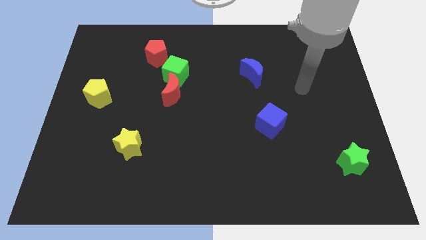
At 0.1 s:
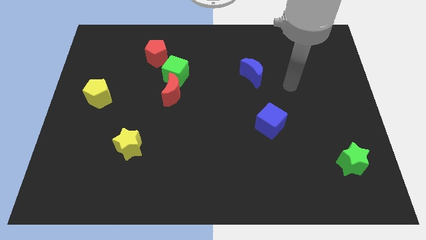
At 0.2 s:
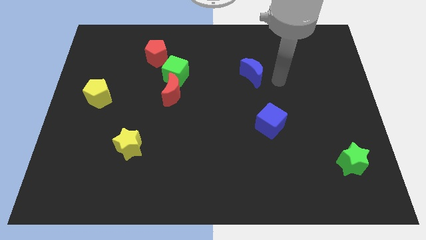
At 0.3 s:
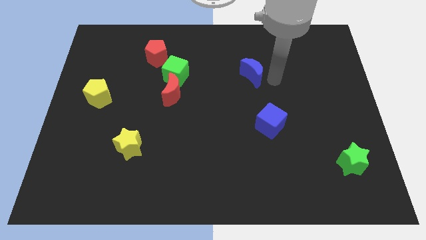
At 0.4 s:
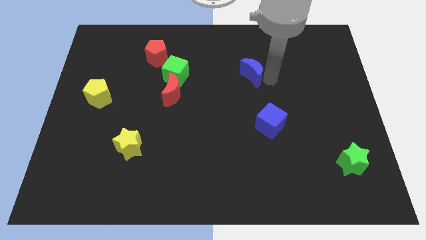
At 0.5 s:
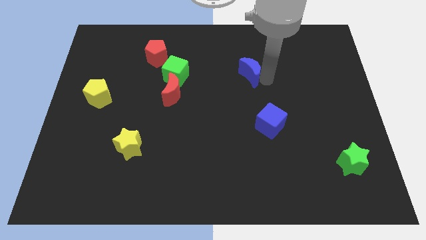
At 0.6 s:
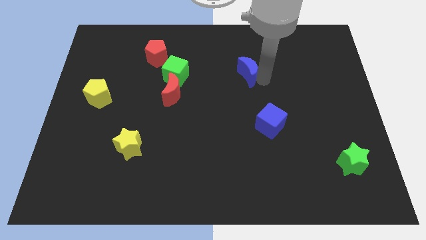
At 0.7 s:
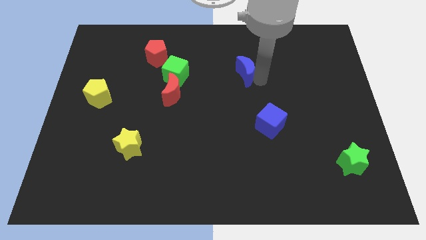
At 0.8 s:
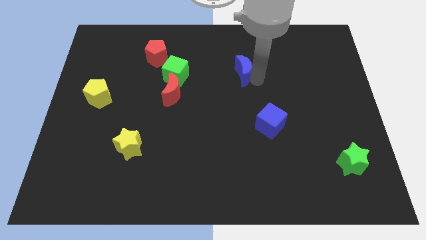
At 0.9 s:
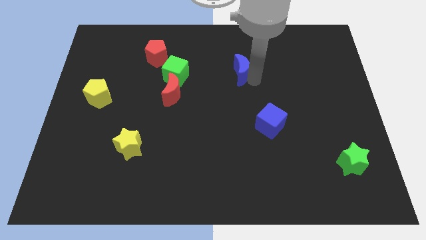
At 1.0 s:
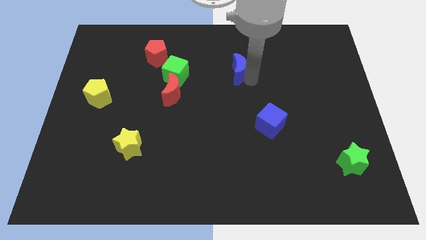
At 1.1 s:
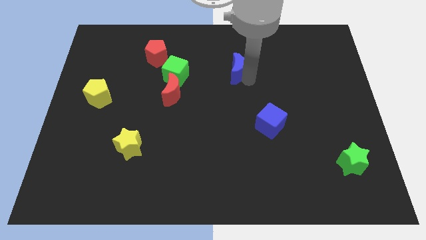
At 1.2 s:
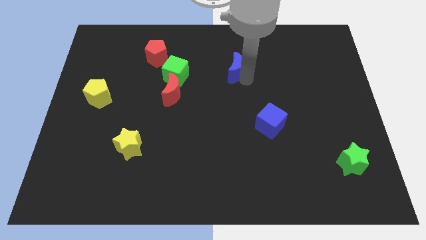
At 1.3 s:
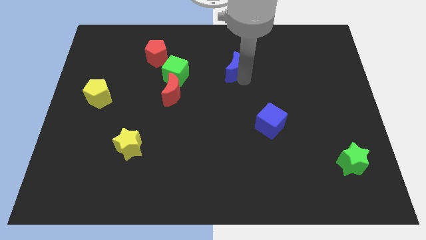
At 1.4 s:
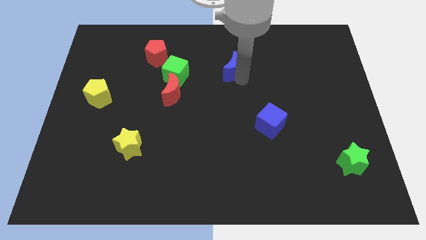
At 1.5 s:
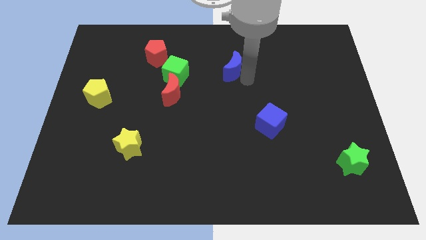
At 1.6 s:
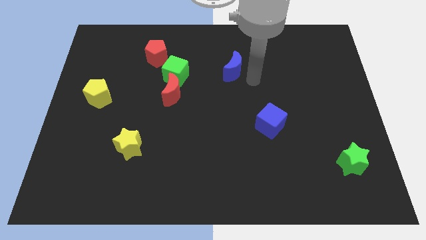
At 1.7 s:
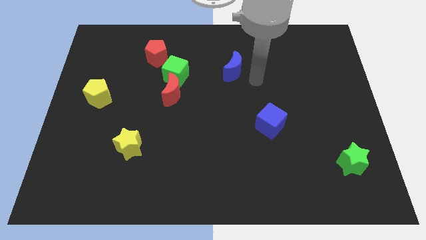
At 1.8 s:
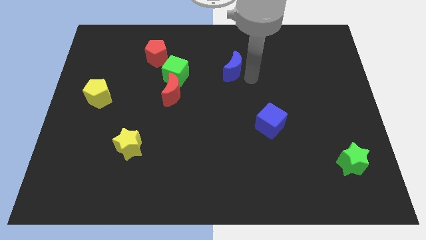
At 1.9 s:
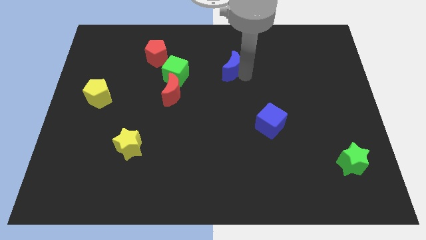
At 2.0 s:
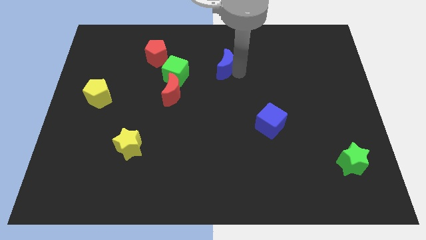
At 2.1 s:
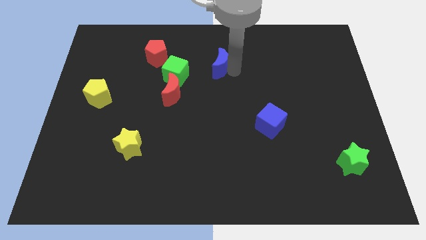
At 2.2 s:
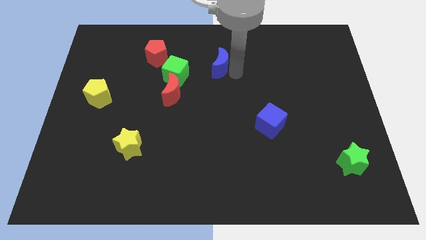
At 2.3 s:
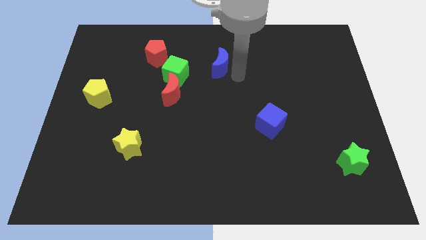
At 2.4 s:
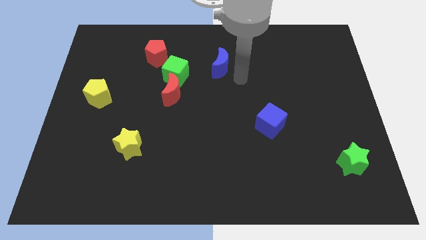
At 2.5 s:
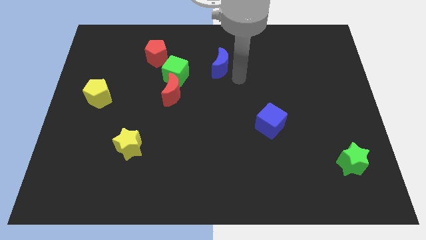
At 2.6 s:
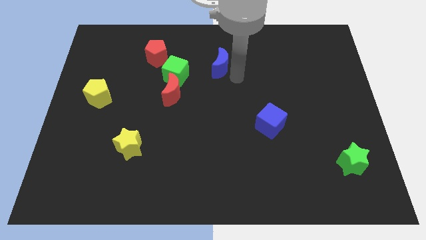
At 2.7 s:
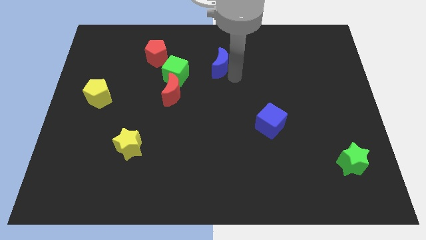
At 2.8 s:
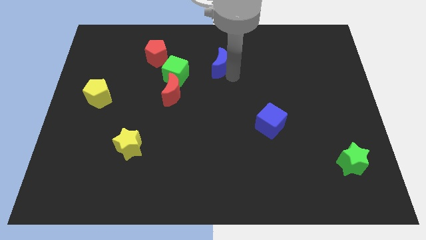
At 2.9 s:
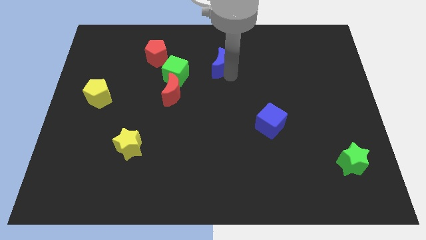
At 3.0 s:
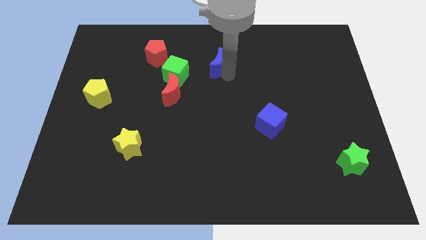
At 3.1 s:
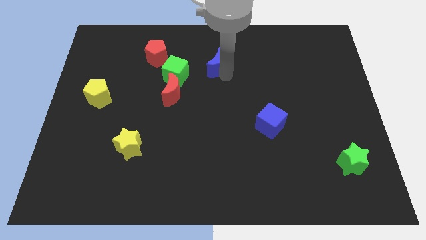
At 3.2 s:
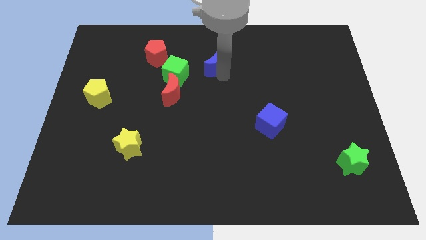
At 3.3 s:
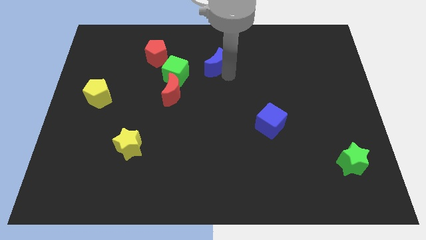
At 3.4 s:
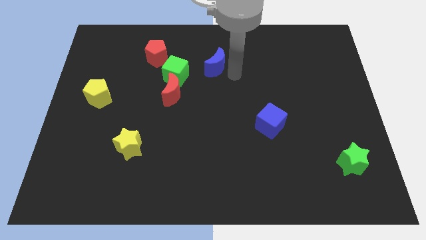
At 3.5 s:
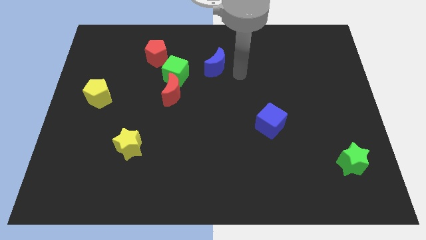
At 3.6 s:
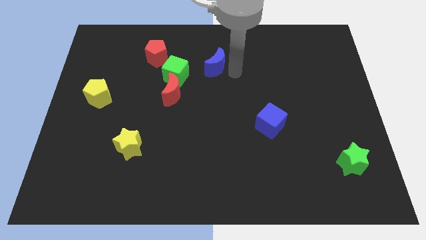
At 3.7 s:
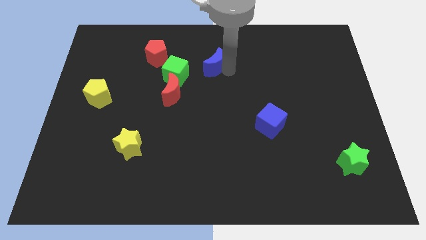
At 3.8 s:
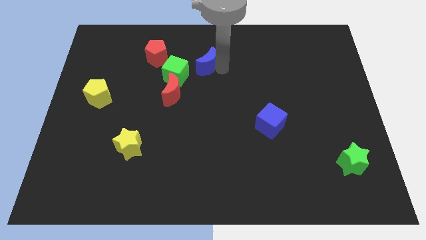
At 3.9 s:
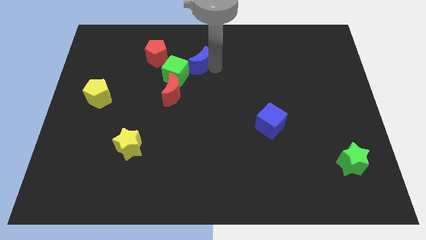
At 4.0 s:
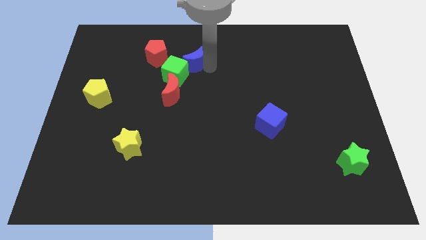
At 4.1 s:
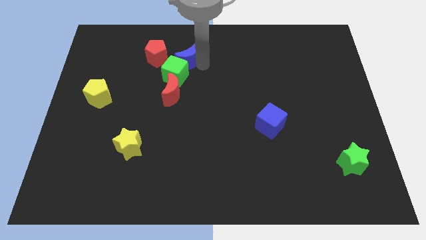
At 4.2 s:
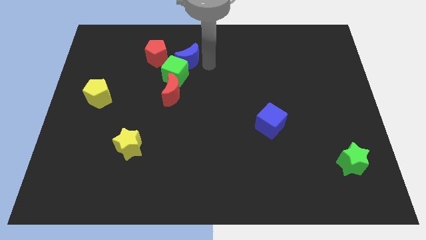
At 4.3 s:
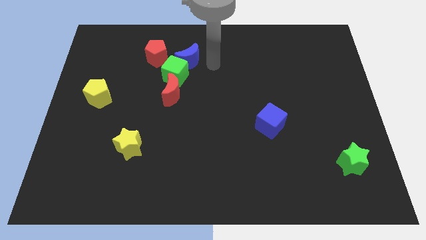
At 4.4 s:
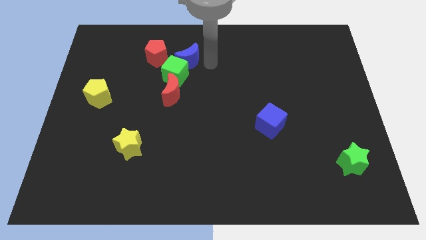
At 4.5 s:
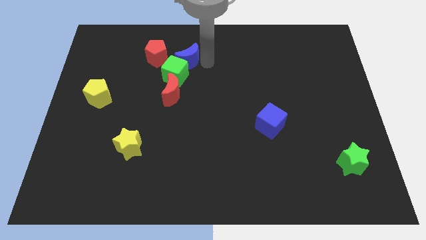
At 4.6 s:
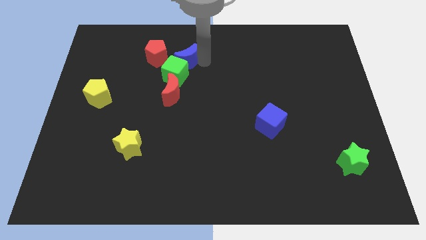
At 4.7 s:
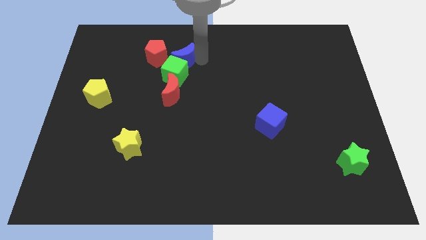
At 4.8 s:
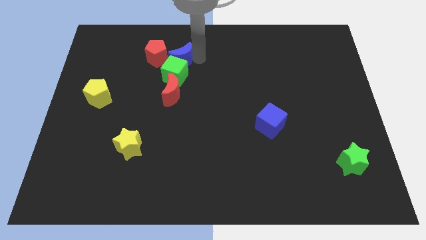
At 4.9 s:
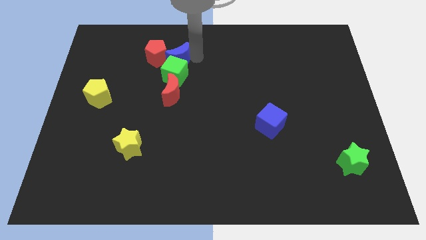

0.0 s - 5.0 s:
put the blue moon towards the red pentagon

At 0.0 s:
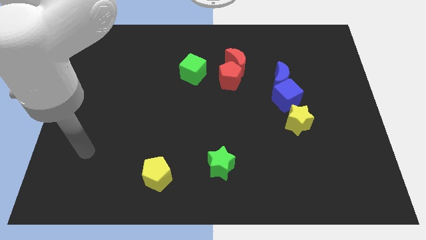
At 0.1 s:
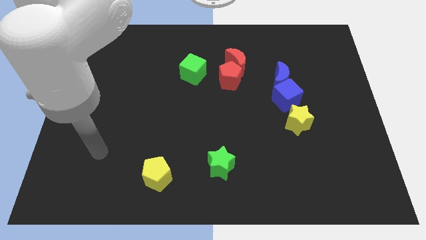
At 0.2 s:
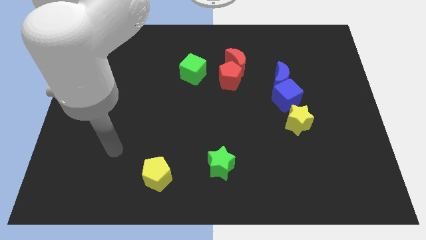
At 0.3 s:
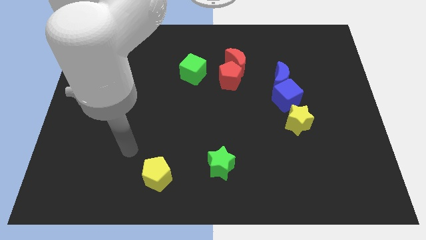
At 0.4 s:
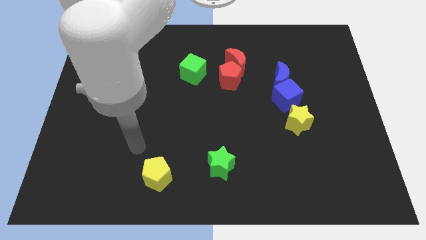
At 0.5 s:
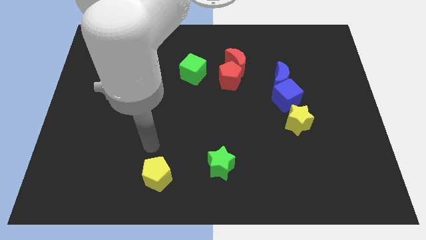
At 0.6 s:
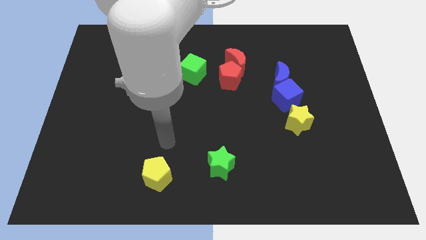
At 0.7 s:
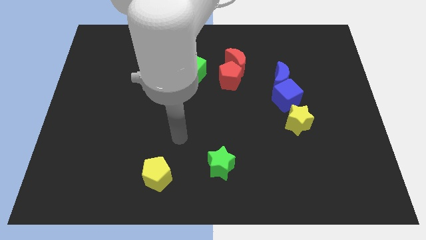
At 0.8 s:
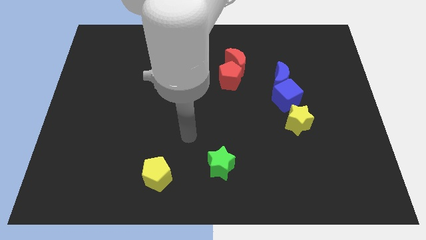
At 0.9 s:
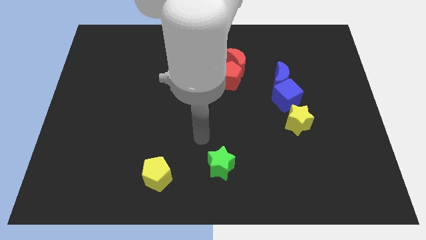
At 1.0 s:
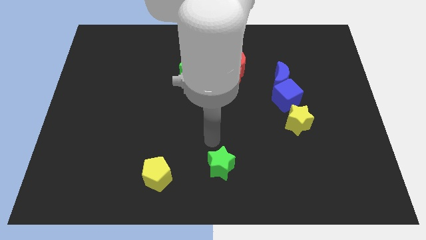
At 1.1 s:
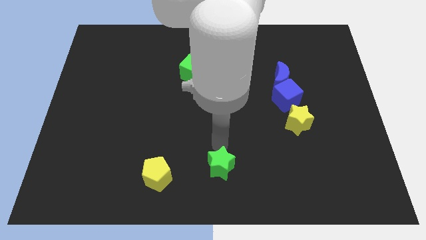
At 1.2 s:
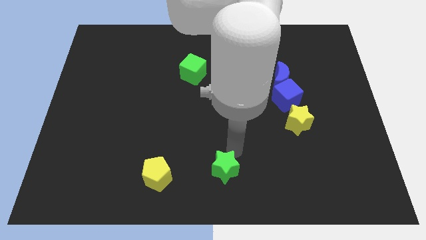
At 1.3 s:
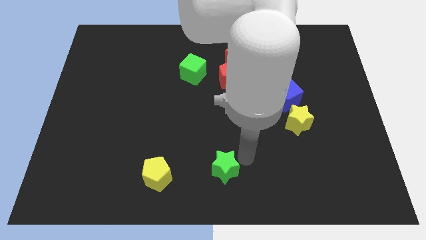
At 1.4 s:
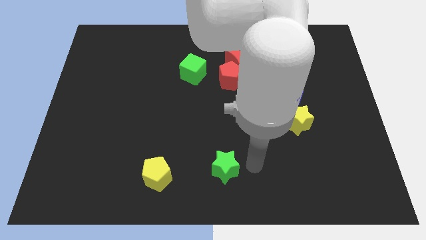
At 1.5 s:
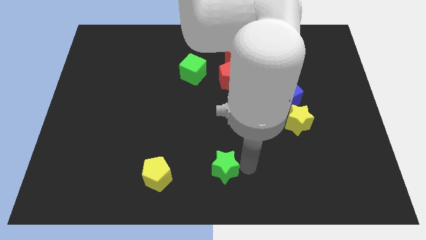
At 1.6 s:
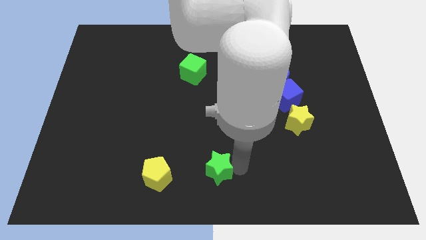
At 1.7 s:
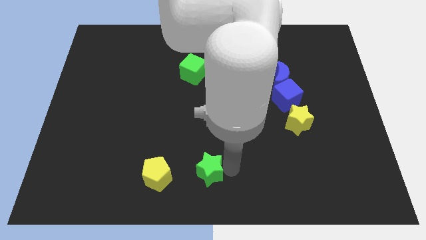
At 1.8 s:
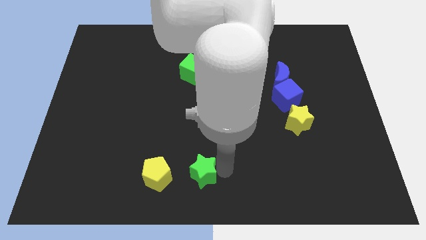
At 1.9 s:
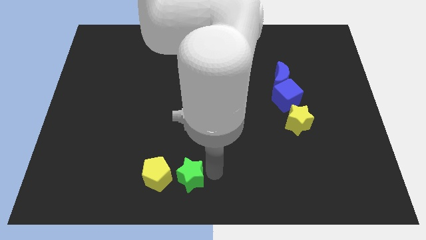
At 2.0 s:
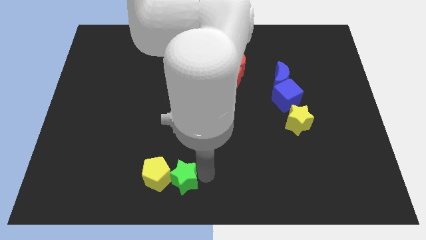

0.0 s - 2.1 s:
slide the green star close to the yellow pentagon

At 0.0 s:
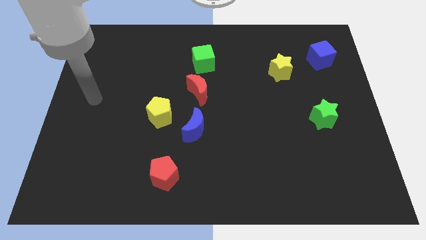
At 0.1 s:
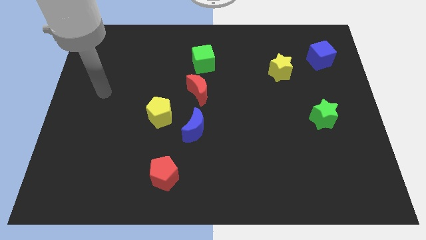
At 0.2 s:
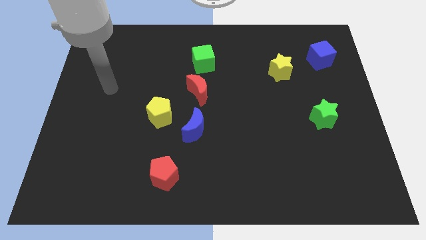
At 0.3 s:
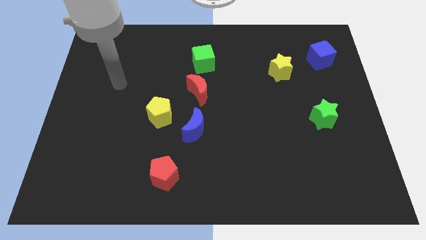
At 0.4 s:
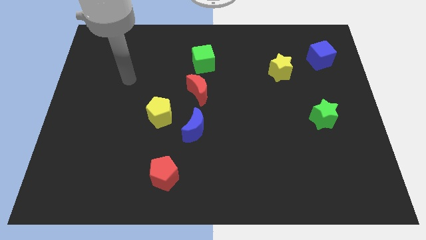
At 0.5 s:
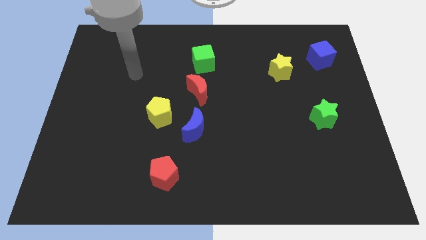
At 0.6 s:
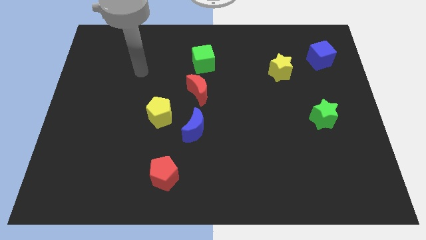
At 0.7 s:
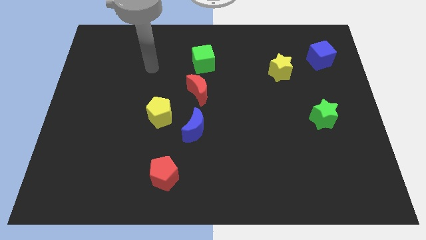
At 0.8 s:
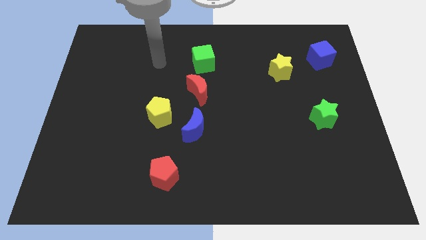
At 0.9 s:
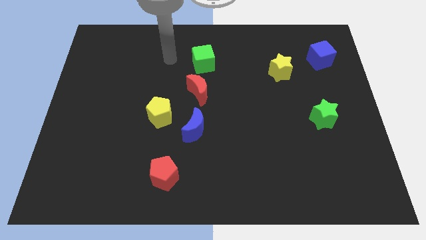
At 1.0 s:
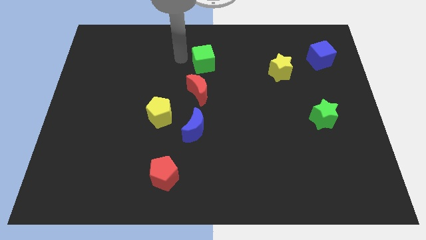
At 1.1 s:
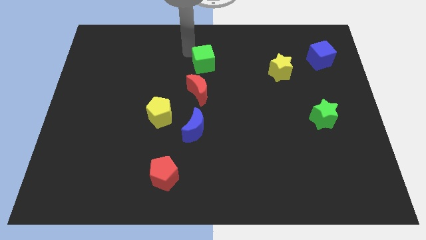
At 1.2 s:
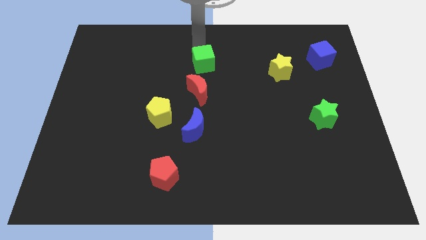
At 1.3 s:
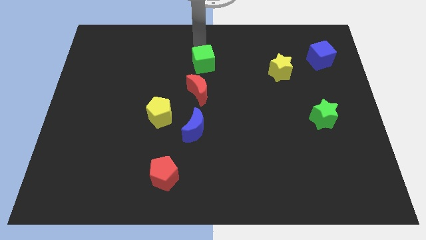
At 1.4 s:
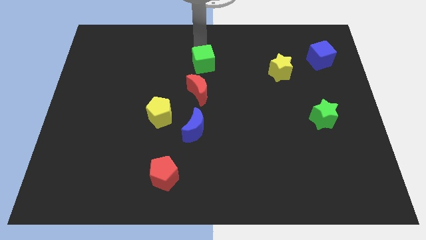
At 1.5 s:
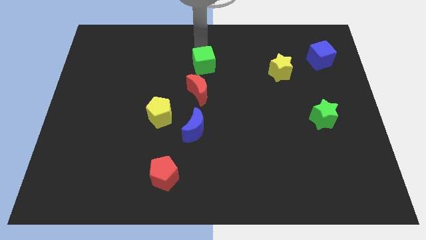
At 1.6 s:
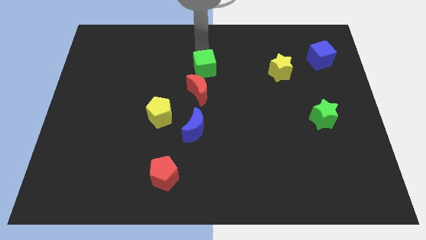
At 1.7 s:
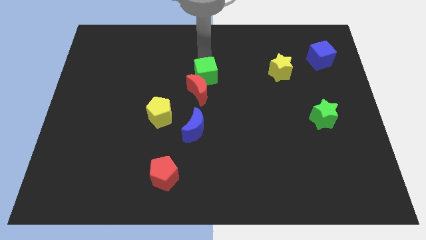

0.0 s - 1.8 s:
move the green cube next to the red moon
